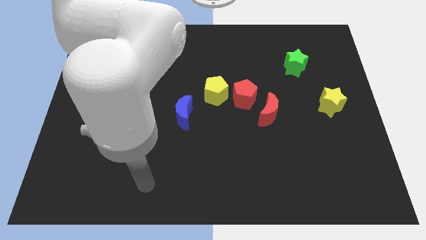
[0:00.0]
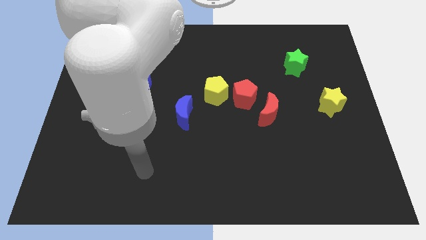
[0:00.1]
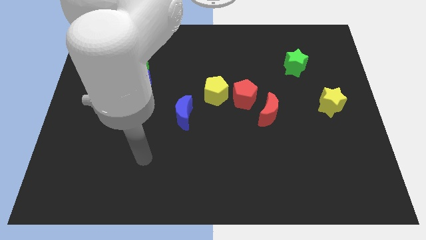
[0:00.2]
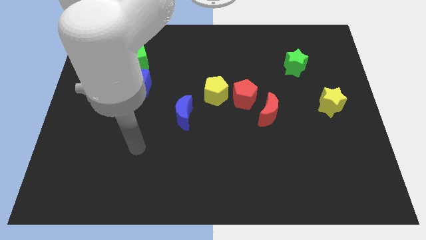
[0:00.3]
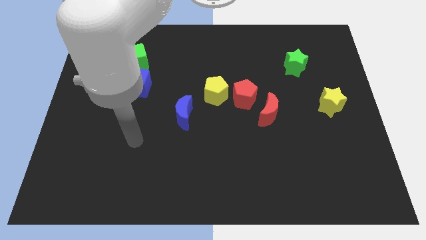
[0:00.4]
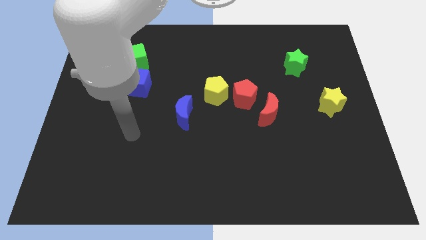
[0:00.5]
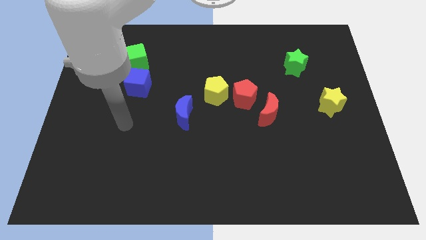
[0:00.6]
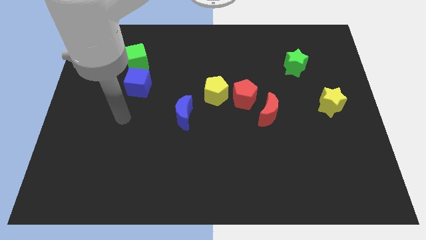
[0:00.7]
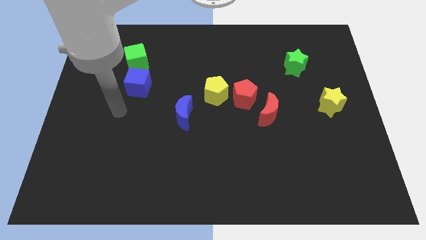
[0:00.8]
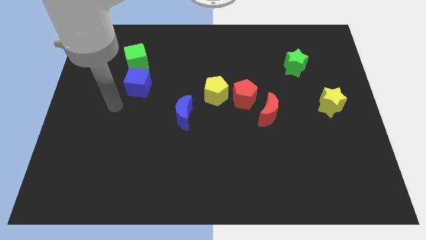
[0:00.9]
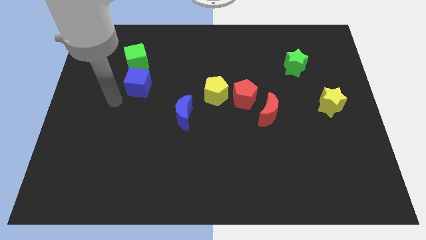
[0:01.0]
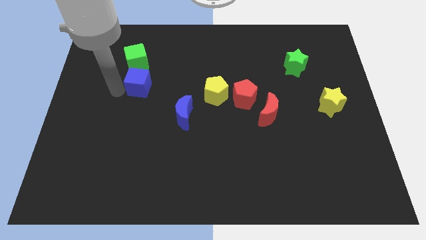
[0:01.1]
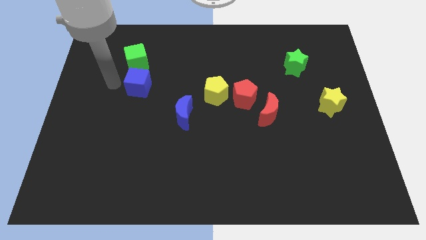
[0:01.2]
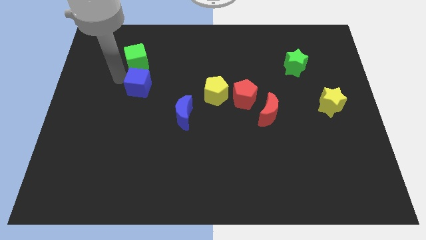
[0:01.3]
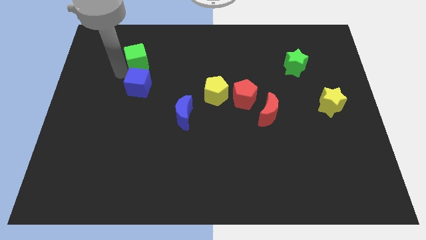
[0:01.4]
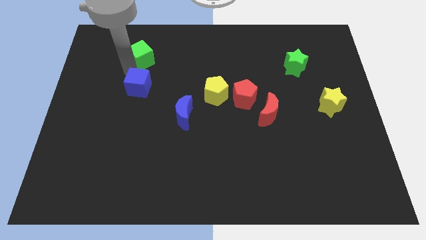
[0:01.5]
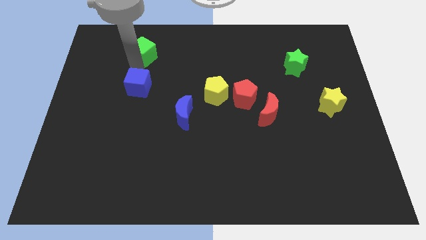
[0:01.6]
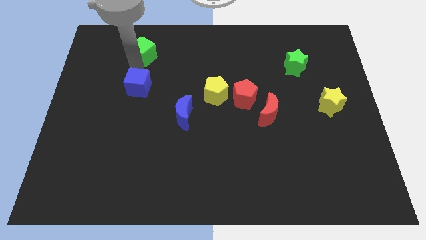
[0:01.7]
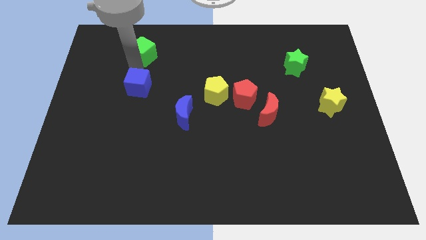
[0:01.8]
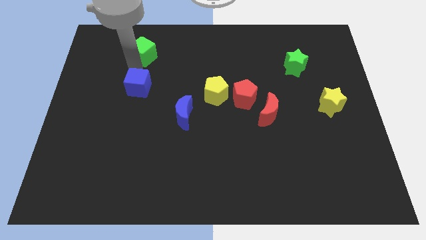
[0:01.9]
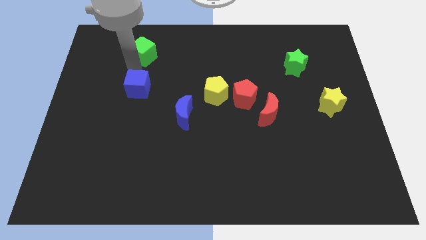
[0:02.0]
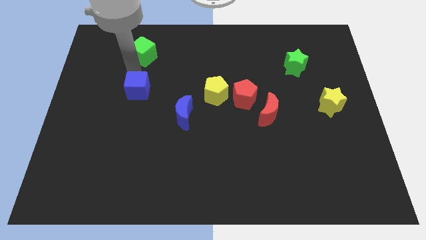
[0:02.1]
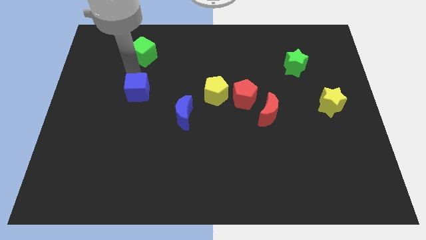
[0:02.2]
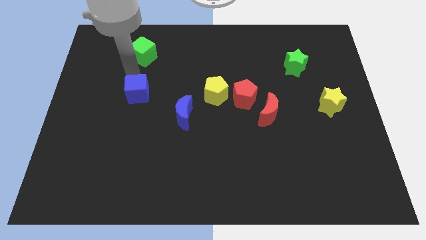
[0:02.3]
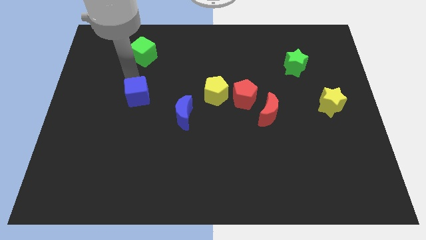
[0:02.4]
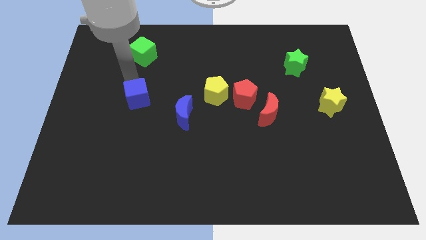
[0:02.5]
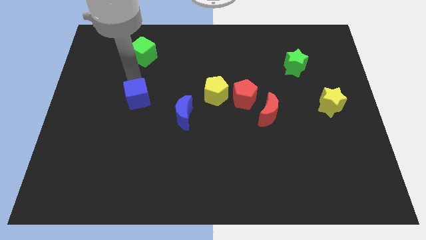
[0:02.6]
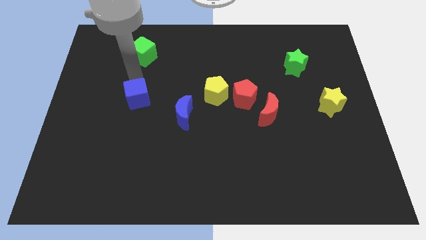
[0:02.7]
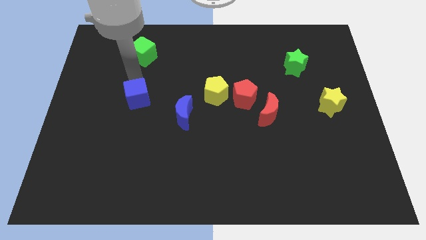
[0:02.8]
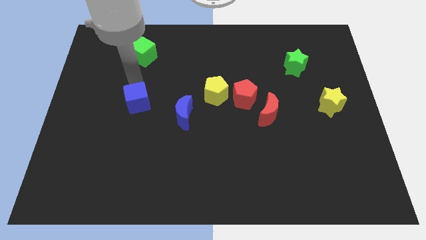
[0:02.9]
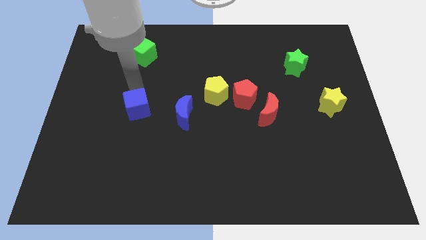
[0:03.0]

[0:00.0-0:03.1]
slightly push the blue cube downwards

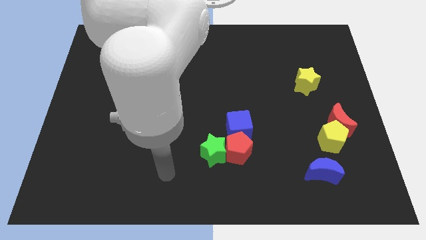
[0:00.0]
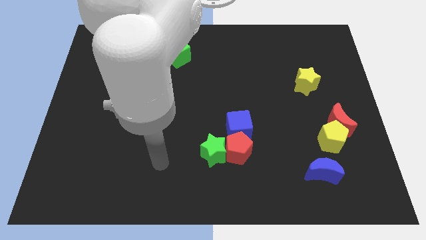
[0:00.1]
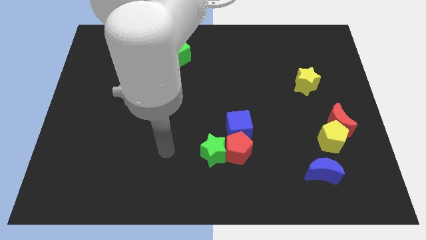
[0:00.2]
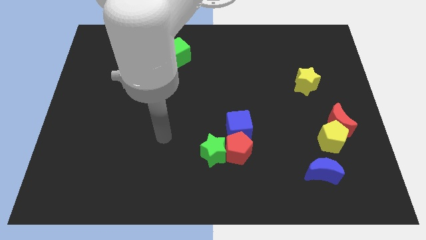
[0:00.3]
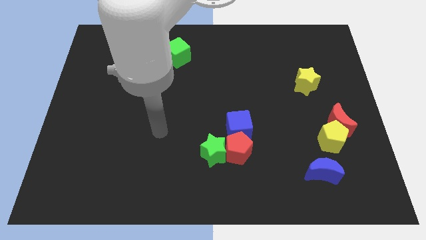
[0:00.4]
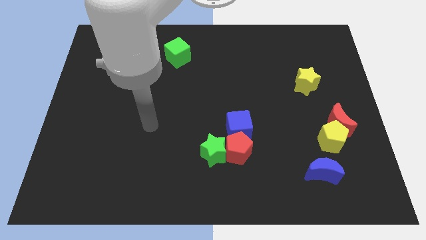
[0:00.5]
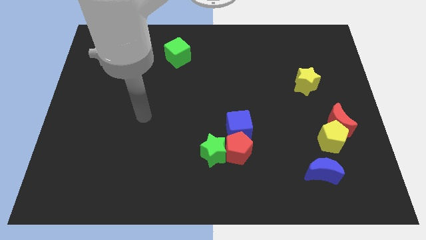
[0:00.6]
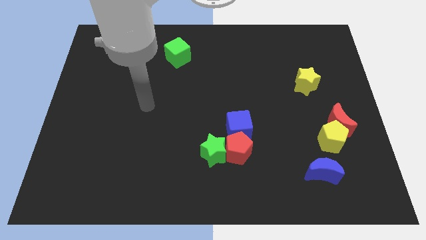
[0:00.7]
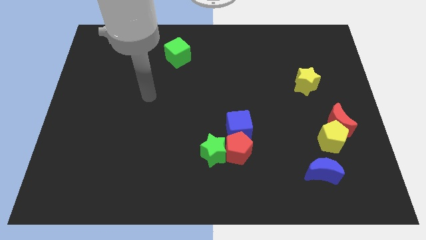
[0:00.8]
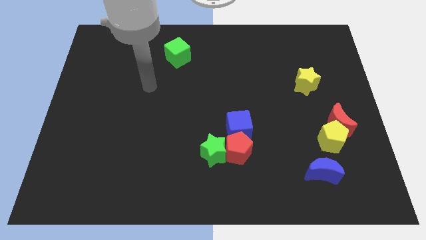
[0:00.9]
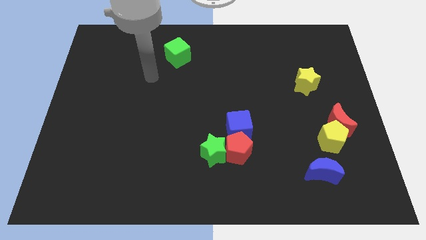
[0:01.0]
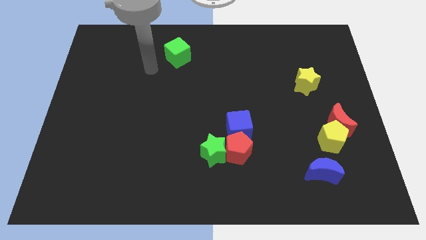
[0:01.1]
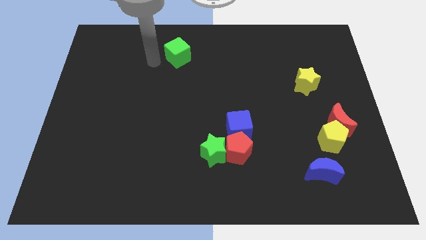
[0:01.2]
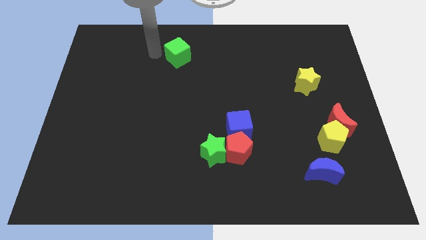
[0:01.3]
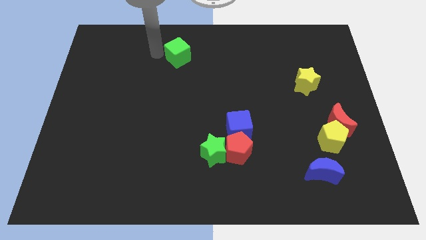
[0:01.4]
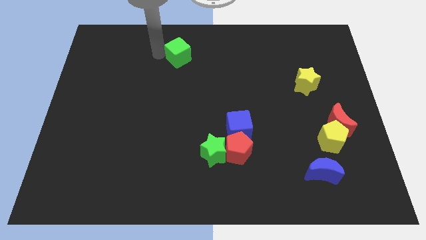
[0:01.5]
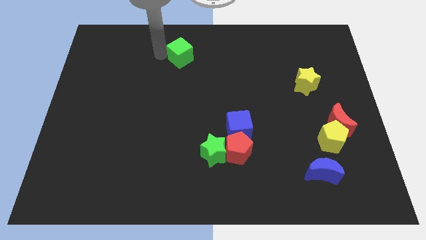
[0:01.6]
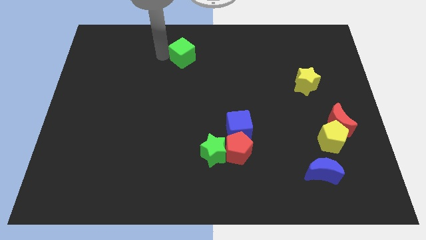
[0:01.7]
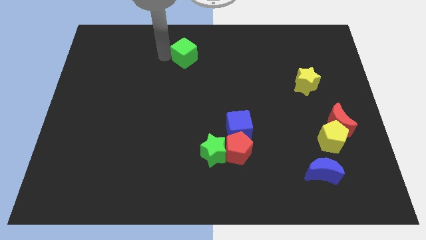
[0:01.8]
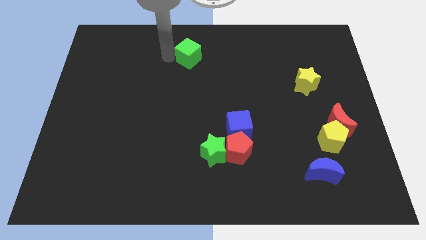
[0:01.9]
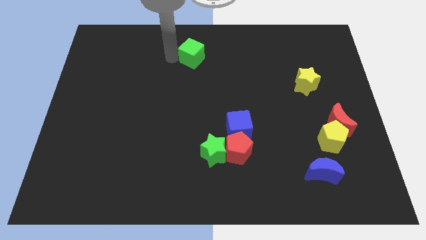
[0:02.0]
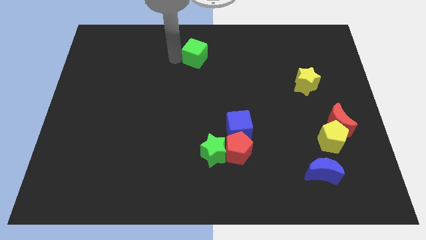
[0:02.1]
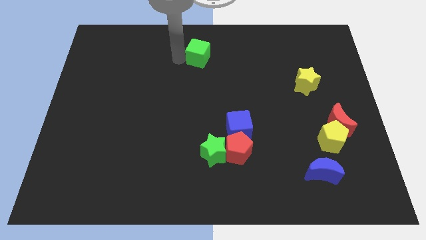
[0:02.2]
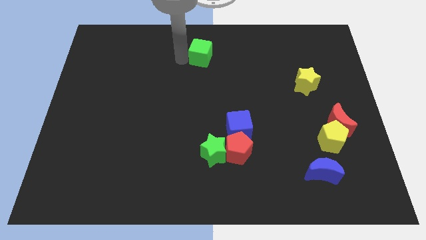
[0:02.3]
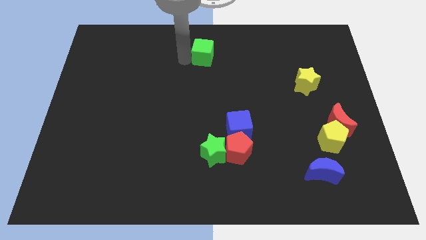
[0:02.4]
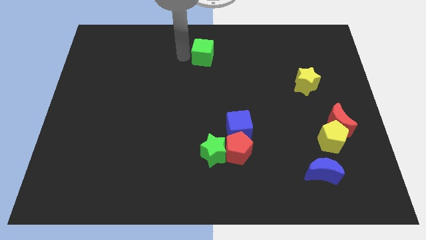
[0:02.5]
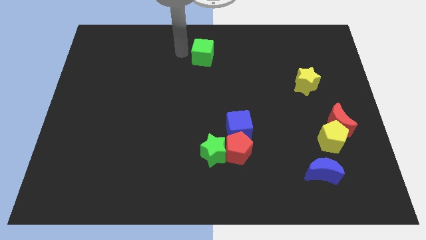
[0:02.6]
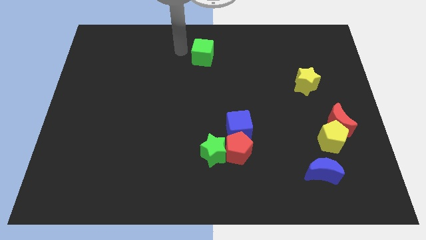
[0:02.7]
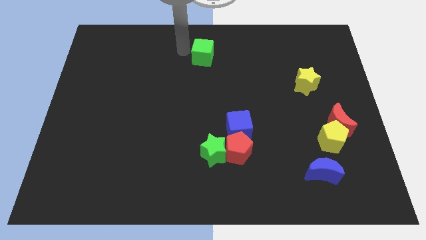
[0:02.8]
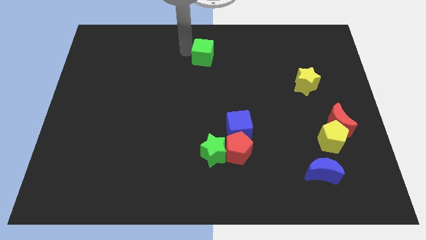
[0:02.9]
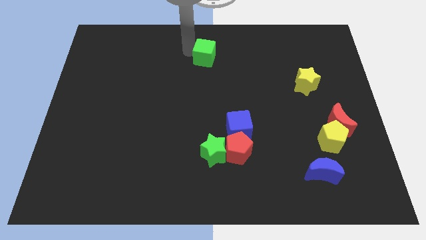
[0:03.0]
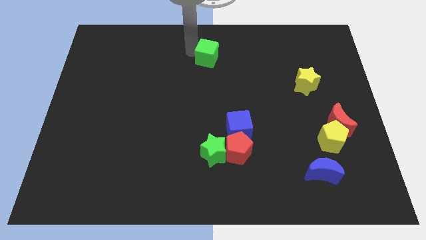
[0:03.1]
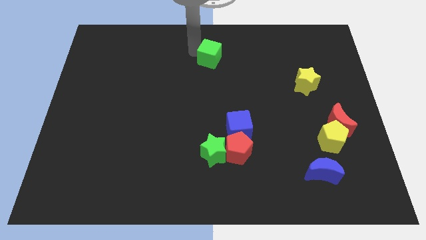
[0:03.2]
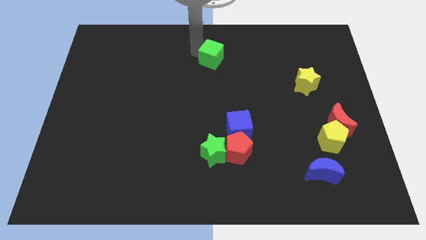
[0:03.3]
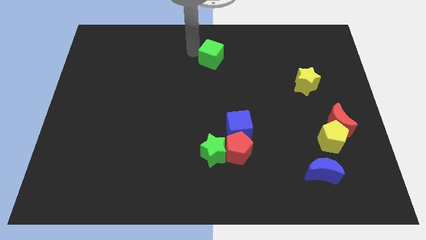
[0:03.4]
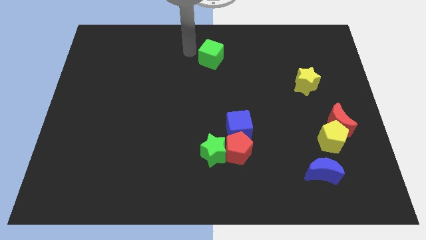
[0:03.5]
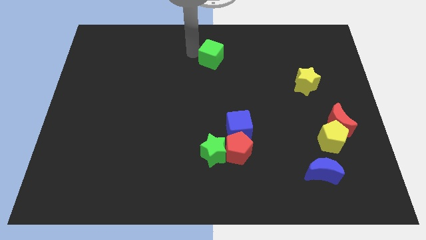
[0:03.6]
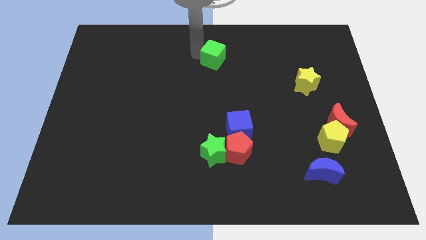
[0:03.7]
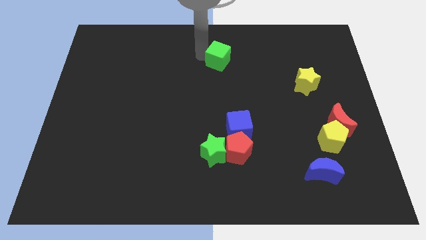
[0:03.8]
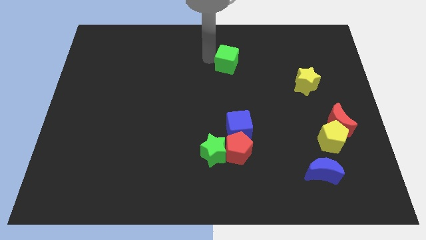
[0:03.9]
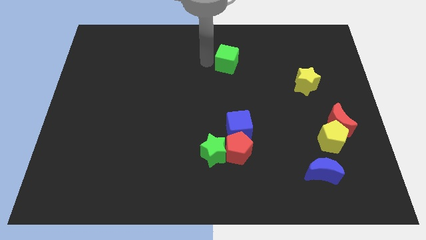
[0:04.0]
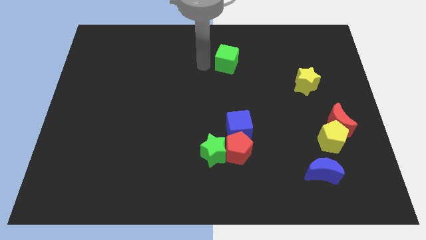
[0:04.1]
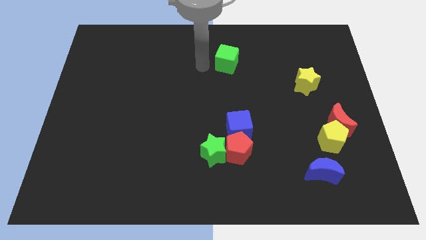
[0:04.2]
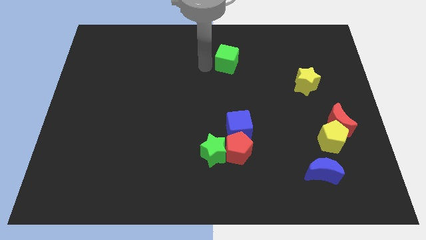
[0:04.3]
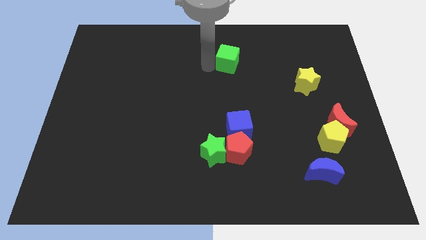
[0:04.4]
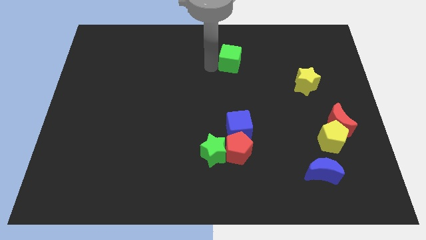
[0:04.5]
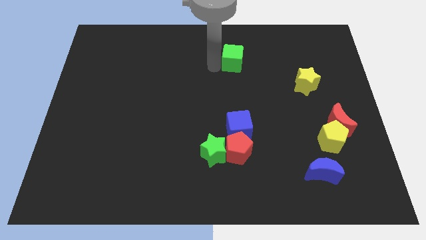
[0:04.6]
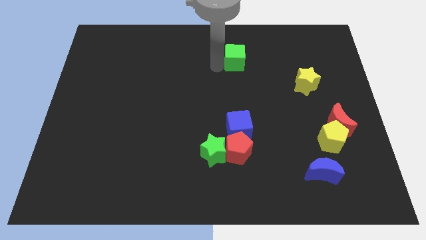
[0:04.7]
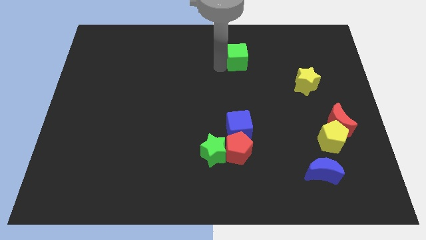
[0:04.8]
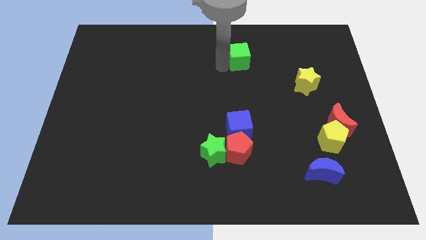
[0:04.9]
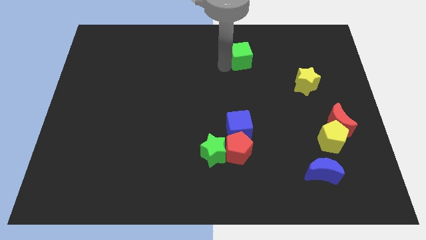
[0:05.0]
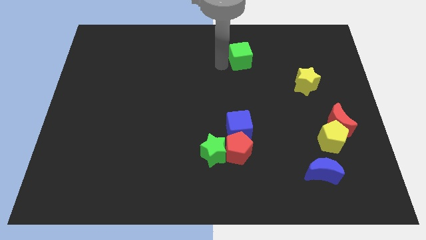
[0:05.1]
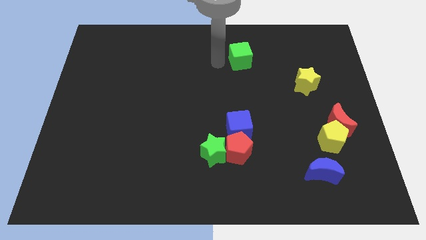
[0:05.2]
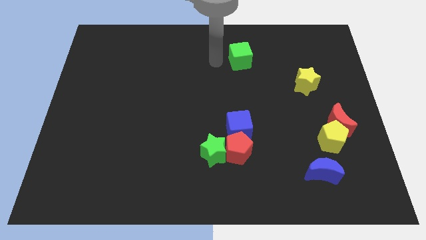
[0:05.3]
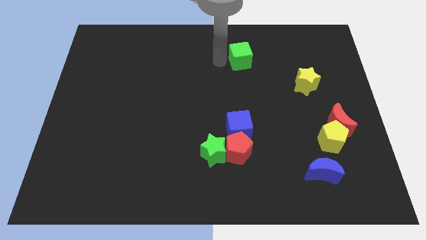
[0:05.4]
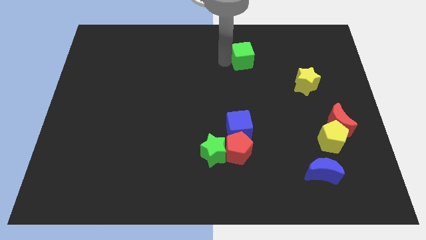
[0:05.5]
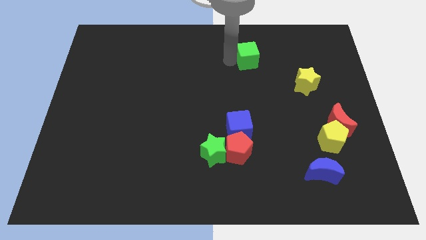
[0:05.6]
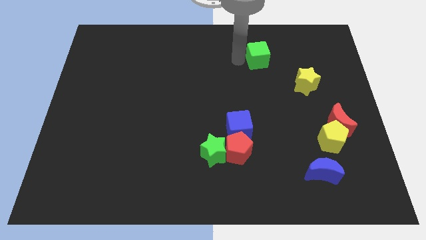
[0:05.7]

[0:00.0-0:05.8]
slide the green cube to the right
